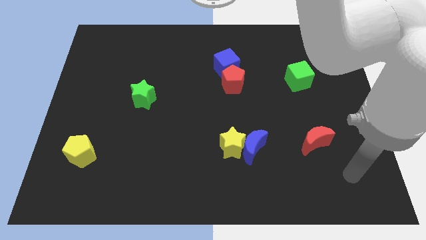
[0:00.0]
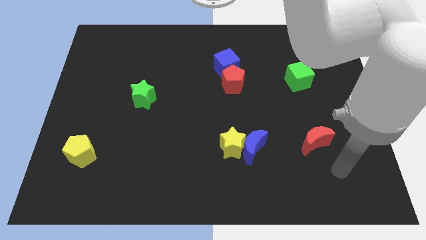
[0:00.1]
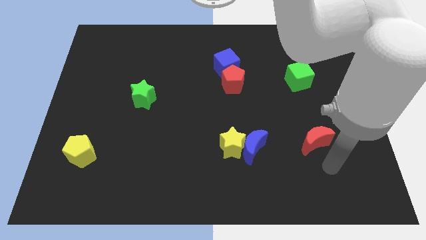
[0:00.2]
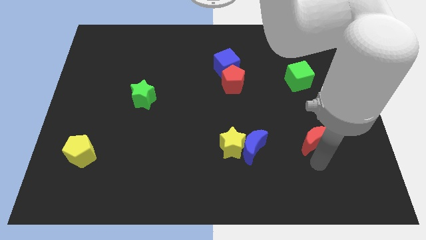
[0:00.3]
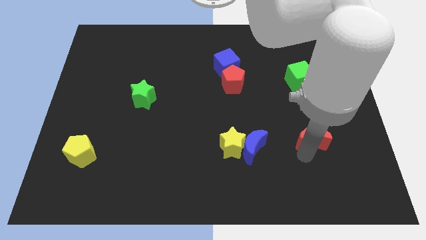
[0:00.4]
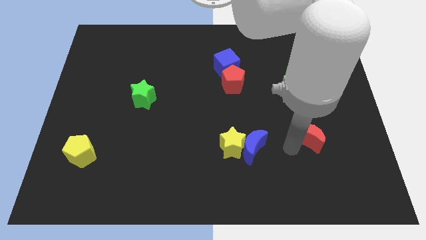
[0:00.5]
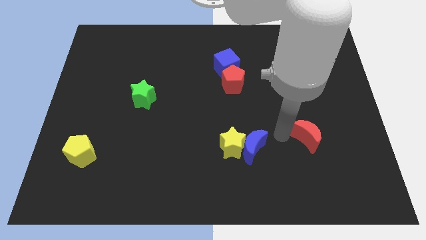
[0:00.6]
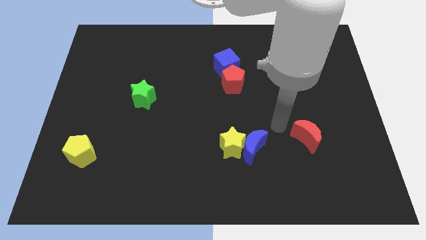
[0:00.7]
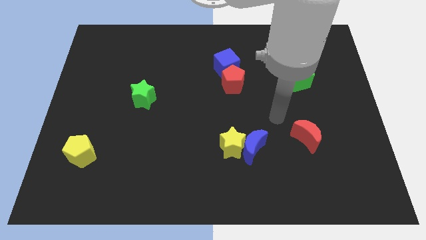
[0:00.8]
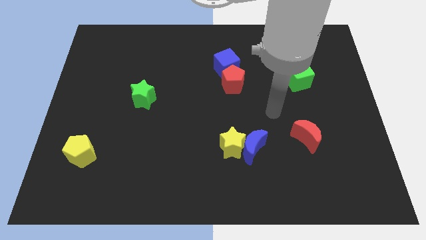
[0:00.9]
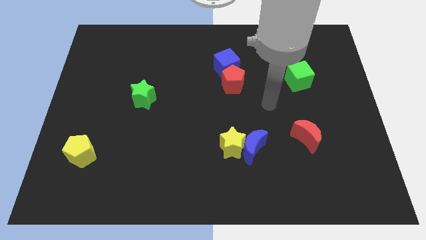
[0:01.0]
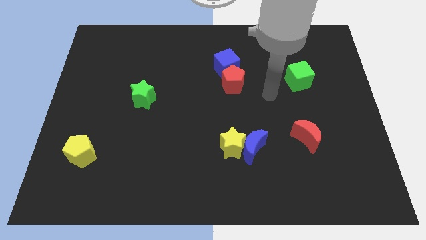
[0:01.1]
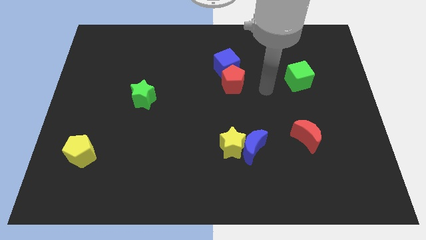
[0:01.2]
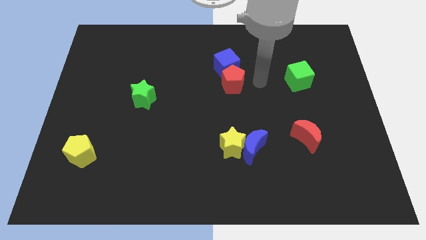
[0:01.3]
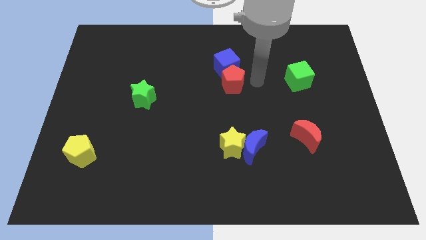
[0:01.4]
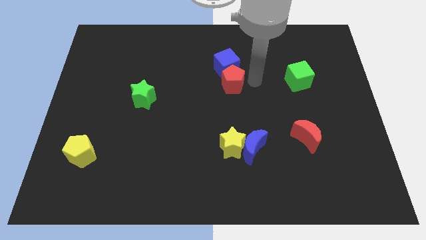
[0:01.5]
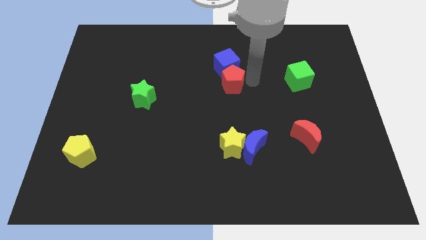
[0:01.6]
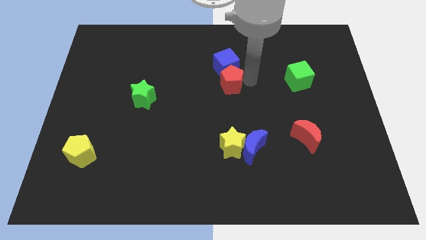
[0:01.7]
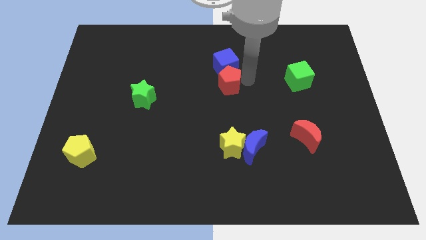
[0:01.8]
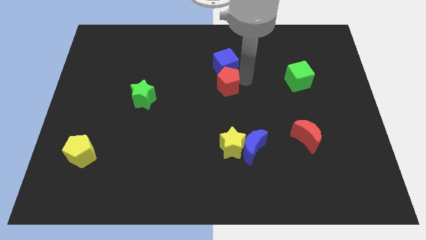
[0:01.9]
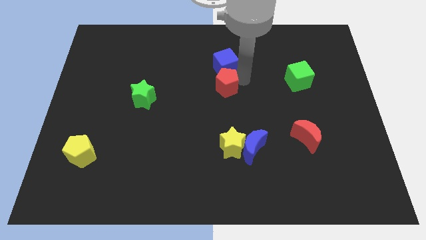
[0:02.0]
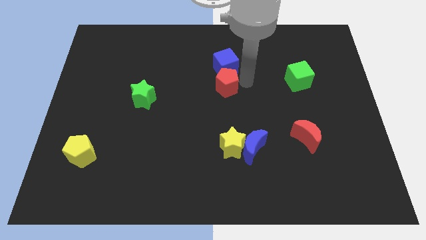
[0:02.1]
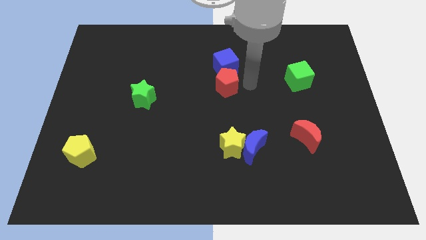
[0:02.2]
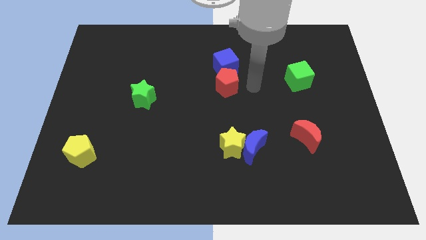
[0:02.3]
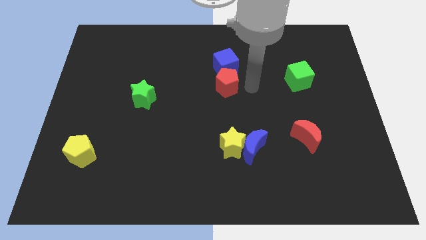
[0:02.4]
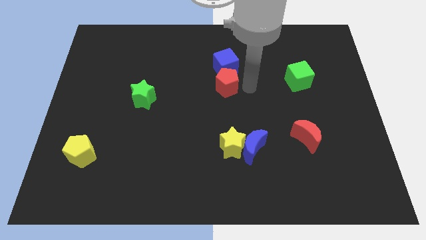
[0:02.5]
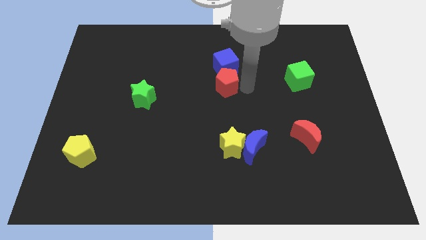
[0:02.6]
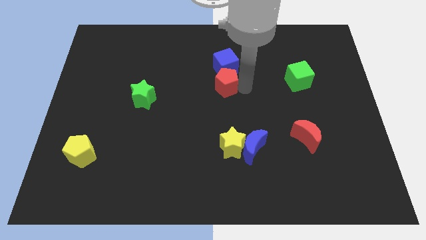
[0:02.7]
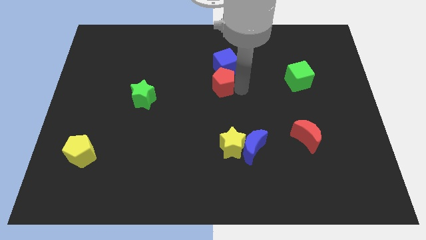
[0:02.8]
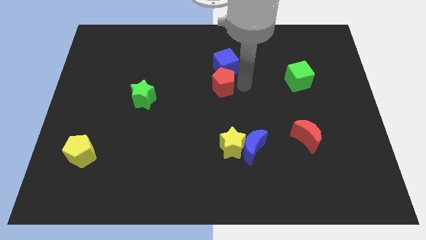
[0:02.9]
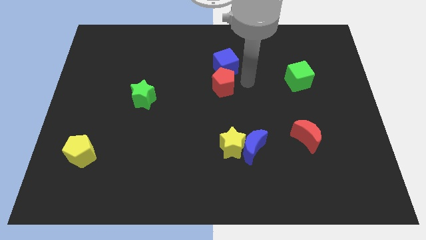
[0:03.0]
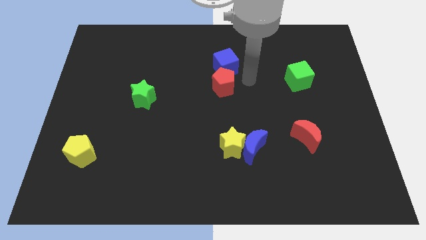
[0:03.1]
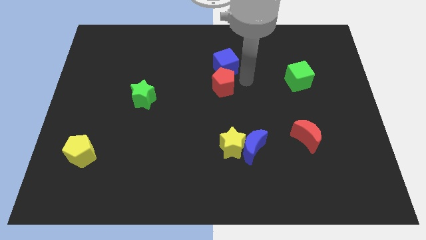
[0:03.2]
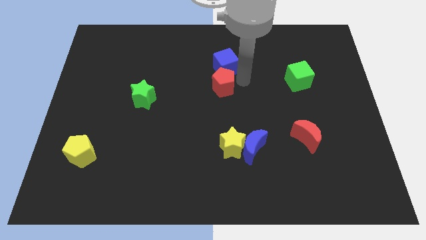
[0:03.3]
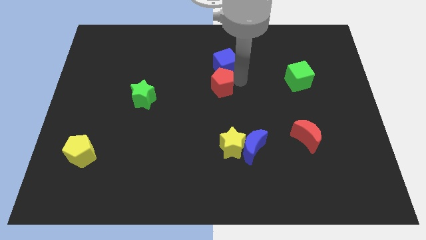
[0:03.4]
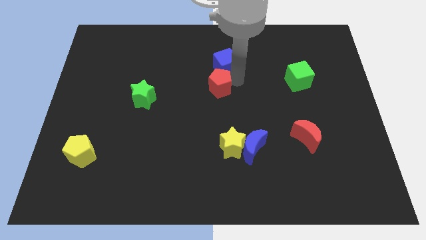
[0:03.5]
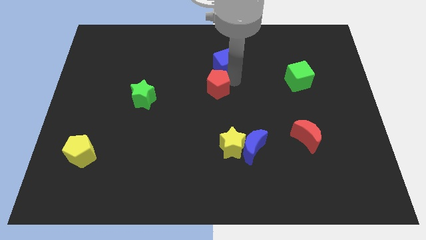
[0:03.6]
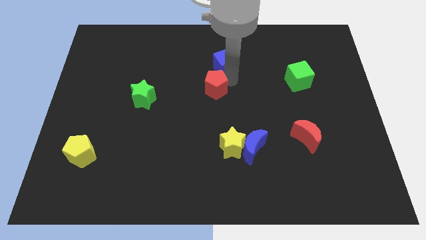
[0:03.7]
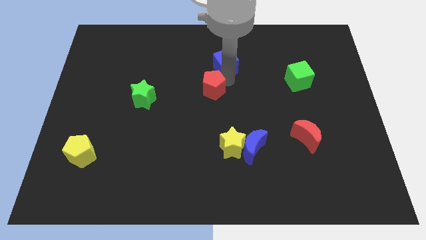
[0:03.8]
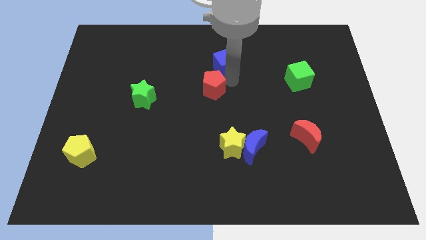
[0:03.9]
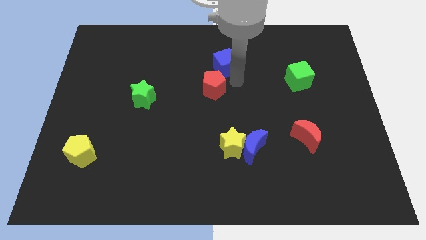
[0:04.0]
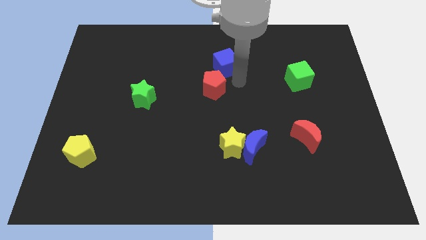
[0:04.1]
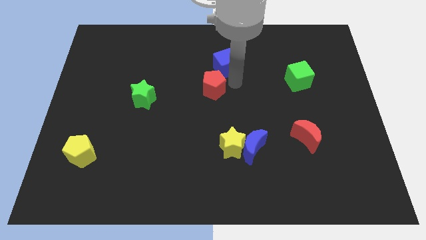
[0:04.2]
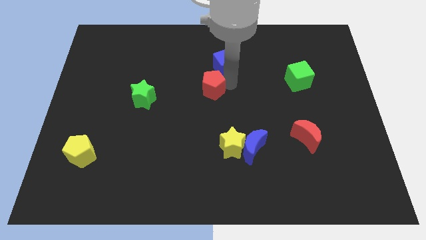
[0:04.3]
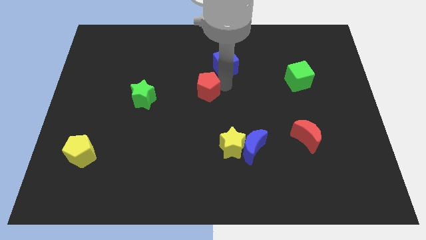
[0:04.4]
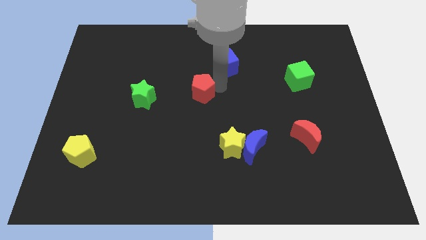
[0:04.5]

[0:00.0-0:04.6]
move the red pentagon a little bit left

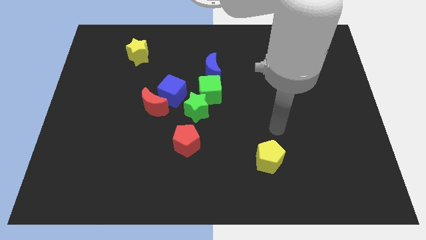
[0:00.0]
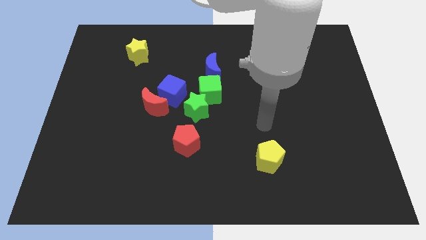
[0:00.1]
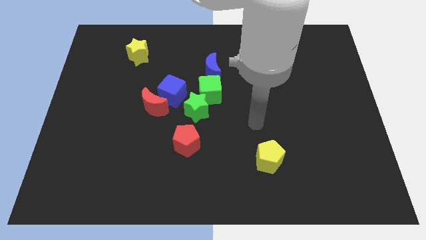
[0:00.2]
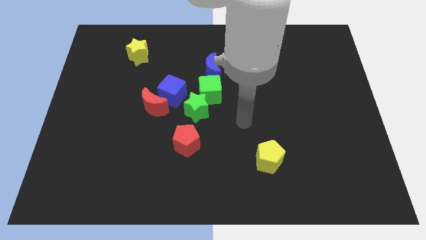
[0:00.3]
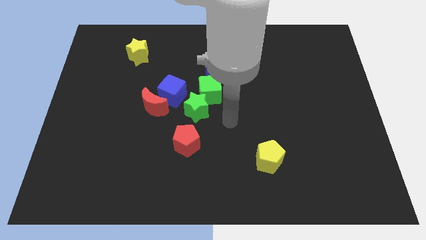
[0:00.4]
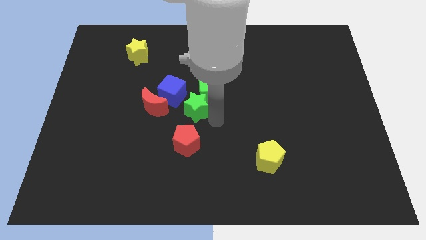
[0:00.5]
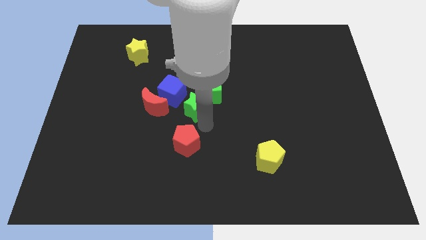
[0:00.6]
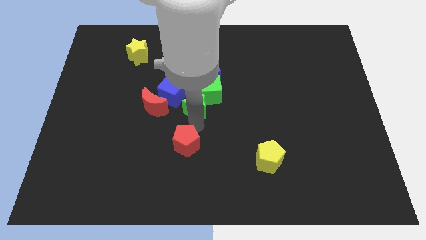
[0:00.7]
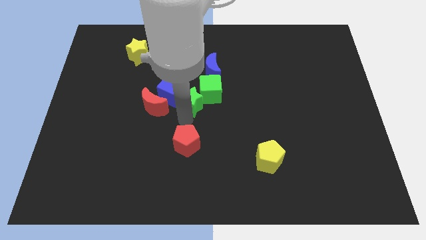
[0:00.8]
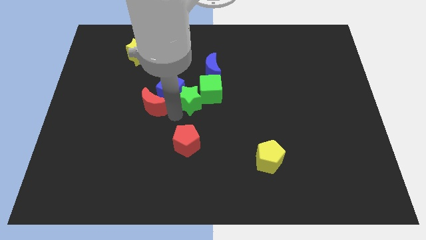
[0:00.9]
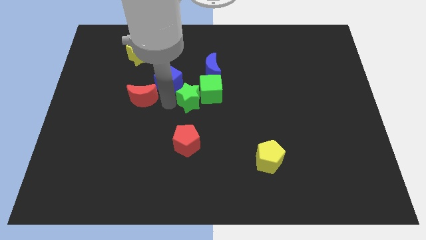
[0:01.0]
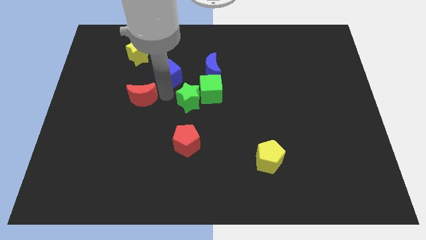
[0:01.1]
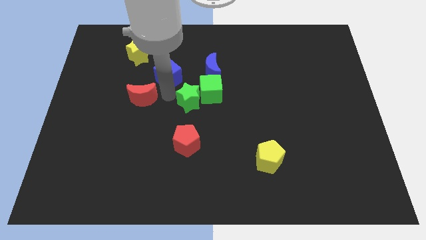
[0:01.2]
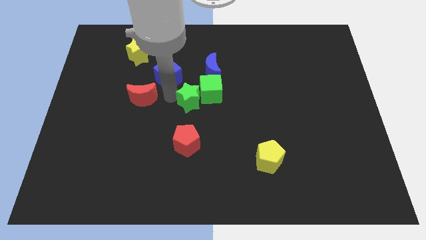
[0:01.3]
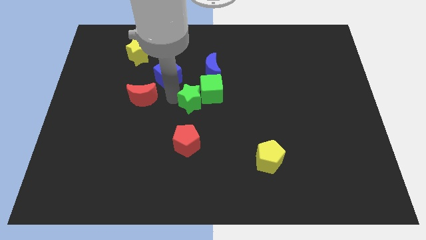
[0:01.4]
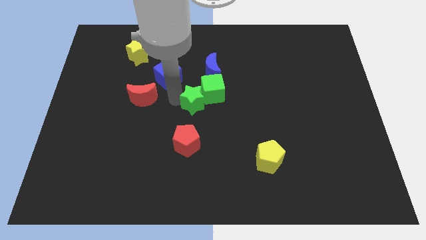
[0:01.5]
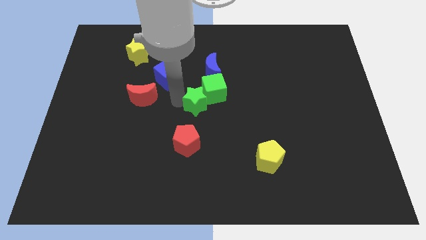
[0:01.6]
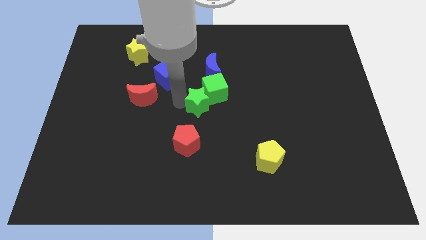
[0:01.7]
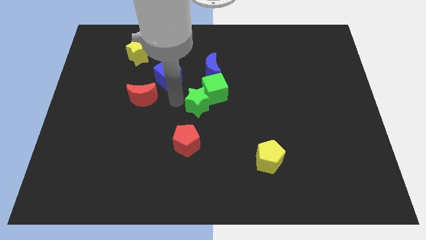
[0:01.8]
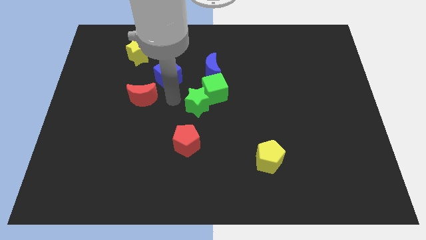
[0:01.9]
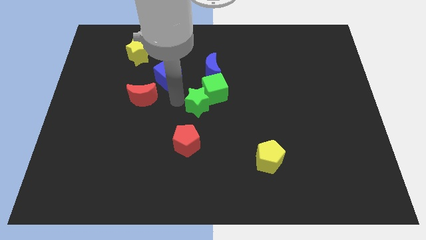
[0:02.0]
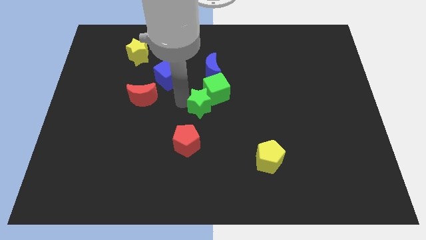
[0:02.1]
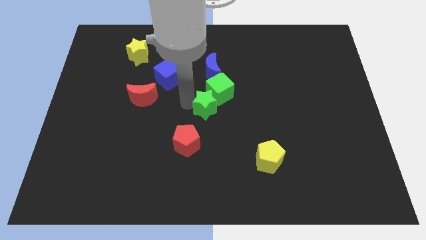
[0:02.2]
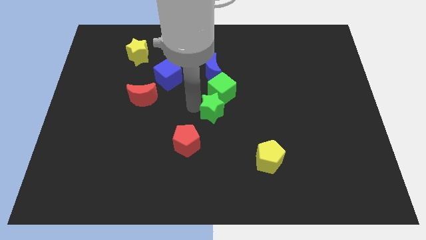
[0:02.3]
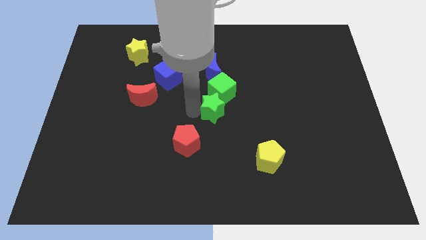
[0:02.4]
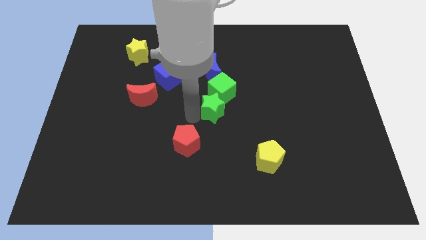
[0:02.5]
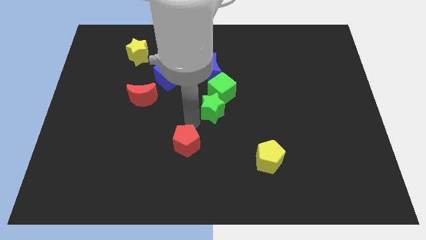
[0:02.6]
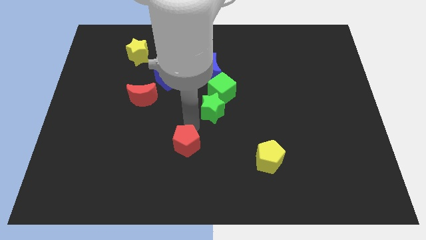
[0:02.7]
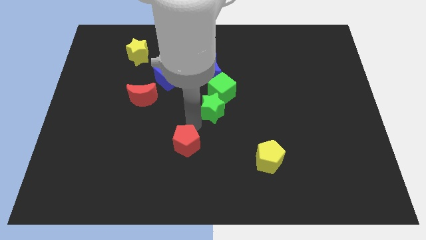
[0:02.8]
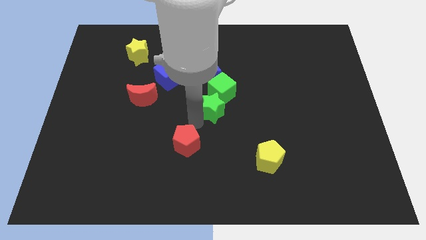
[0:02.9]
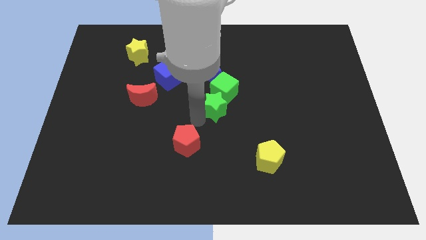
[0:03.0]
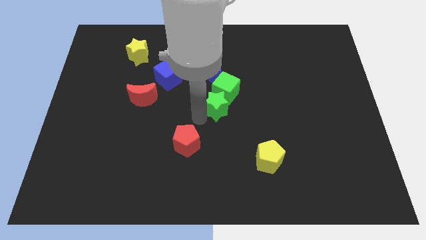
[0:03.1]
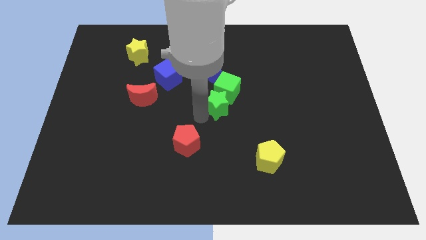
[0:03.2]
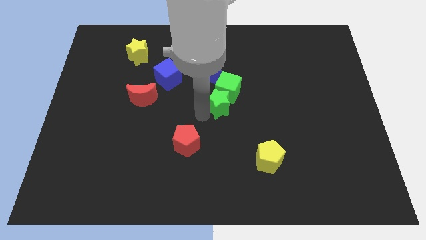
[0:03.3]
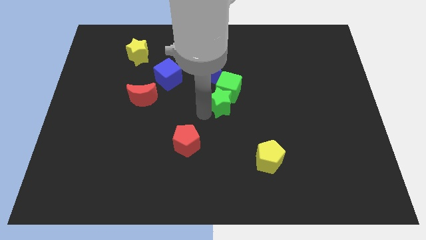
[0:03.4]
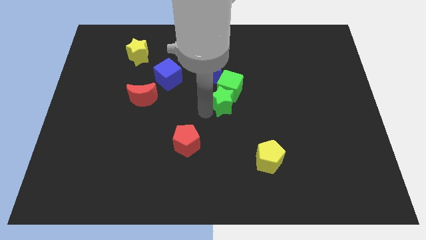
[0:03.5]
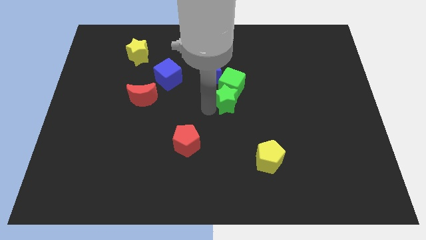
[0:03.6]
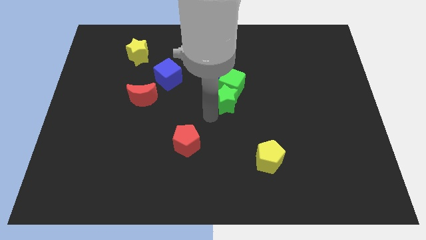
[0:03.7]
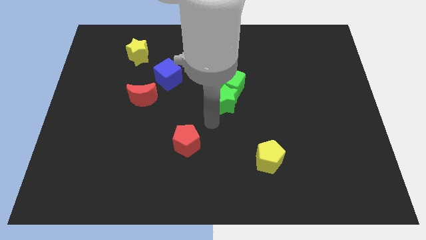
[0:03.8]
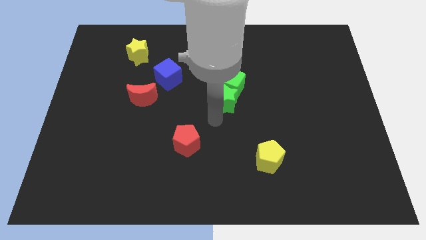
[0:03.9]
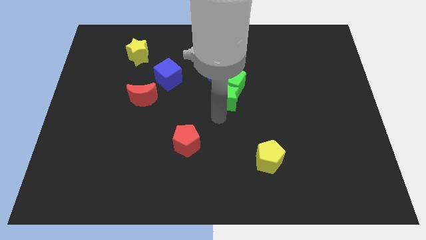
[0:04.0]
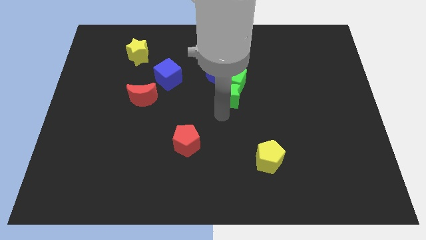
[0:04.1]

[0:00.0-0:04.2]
move the green star up and right a little
